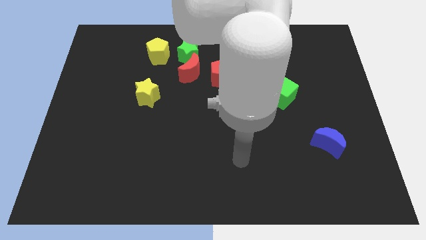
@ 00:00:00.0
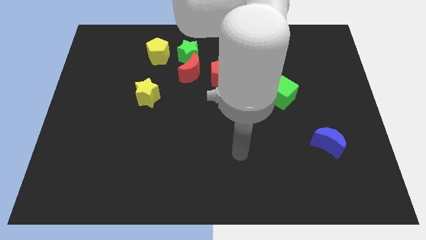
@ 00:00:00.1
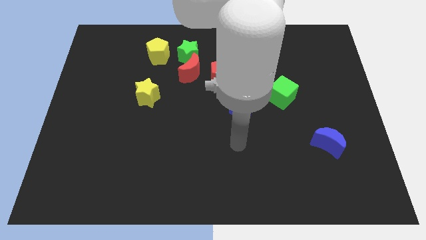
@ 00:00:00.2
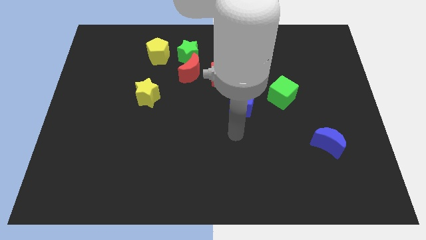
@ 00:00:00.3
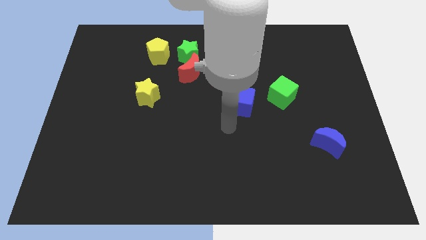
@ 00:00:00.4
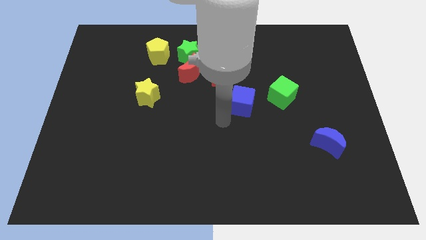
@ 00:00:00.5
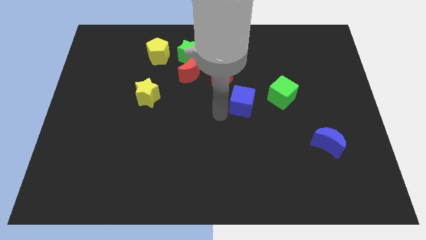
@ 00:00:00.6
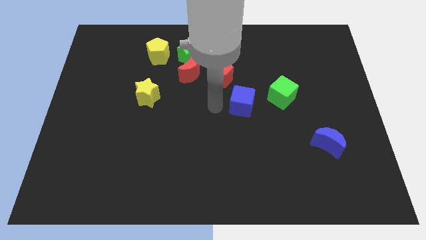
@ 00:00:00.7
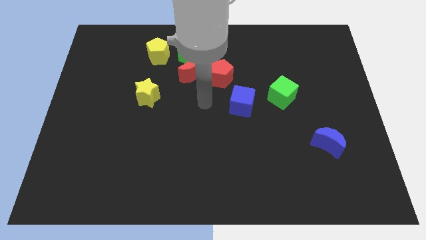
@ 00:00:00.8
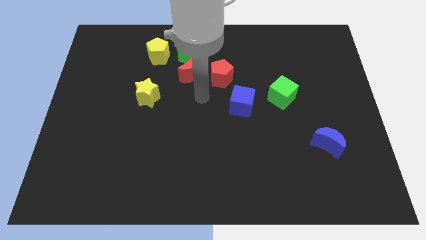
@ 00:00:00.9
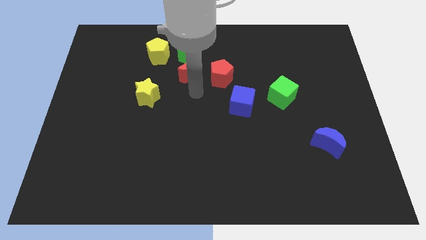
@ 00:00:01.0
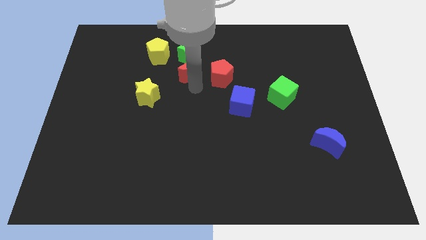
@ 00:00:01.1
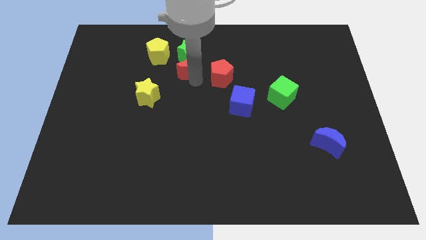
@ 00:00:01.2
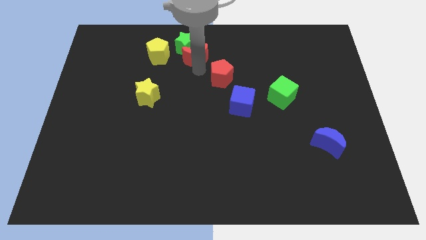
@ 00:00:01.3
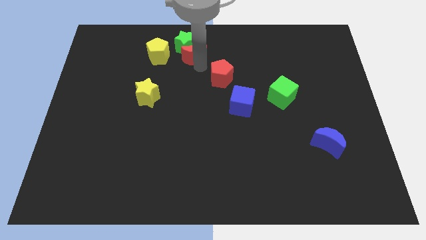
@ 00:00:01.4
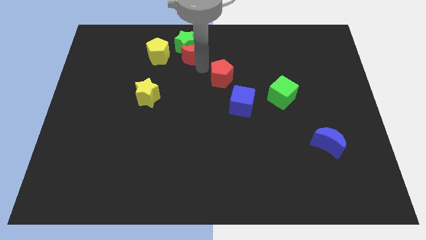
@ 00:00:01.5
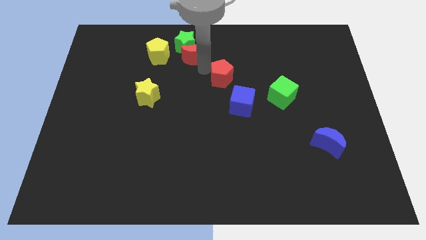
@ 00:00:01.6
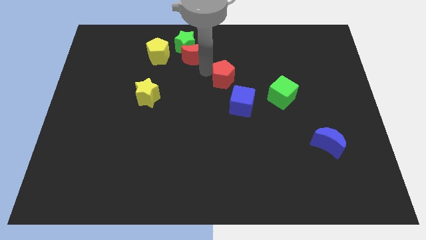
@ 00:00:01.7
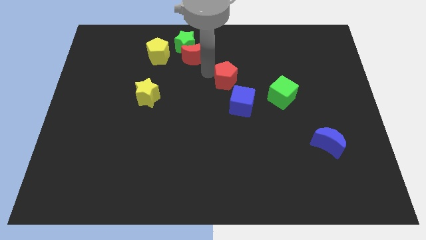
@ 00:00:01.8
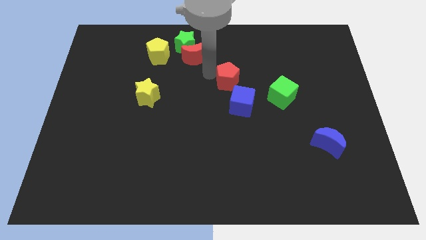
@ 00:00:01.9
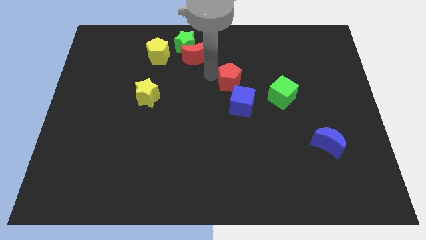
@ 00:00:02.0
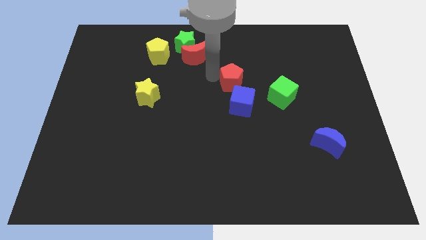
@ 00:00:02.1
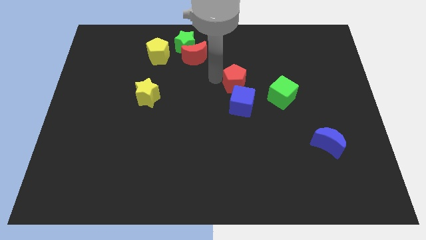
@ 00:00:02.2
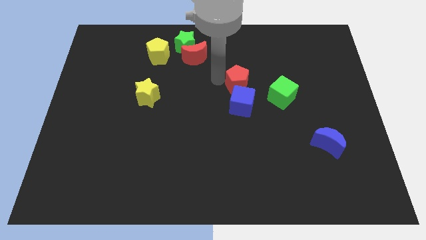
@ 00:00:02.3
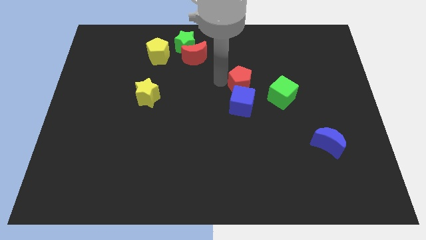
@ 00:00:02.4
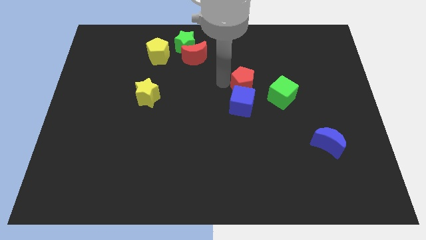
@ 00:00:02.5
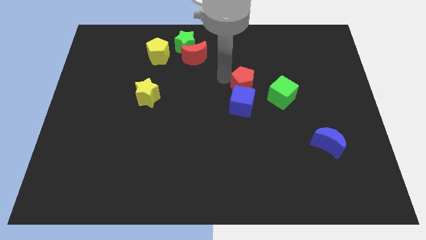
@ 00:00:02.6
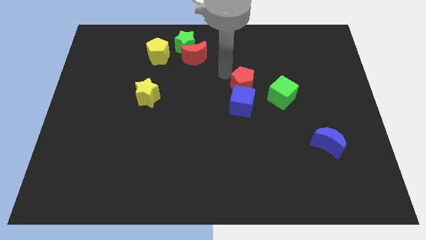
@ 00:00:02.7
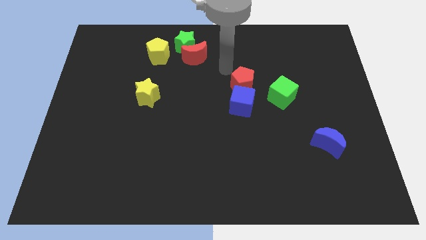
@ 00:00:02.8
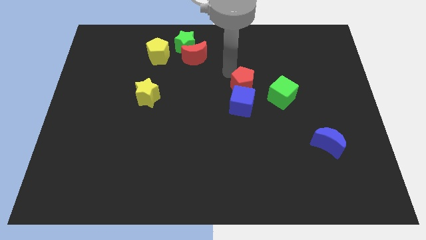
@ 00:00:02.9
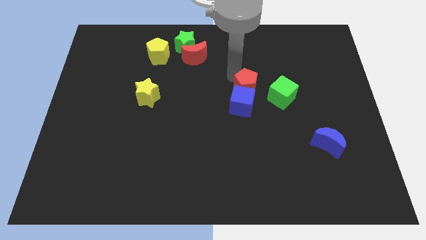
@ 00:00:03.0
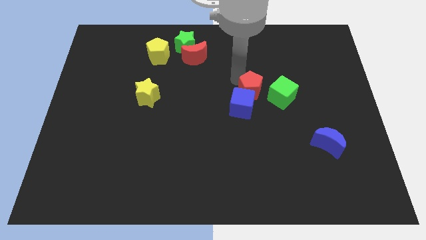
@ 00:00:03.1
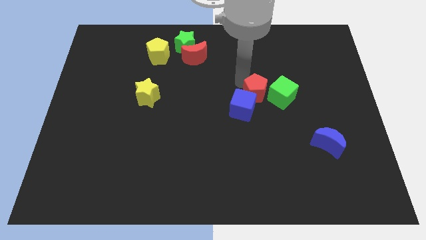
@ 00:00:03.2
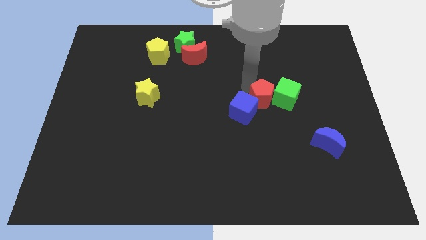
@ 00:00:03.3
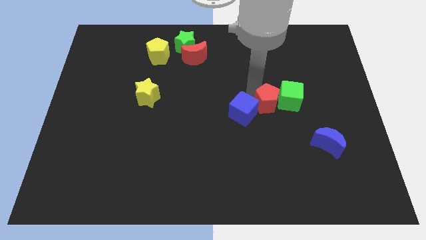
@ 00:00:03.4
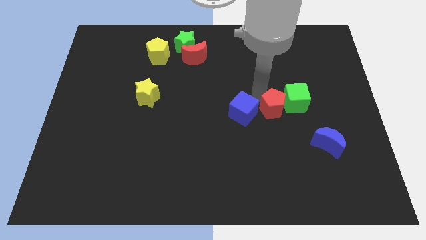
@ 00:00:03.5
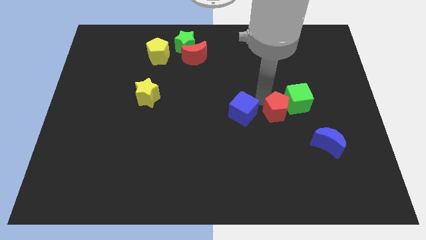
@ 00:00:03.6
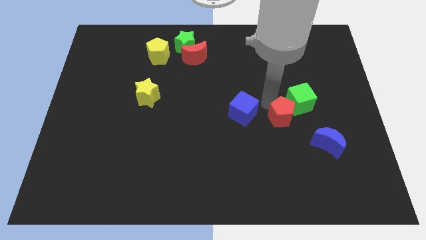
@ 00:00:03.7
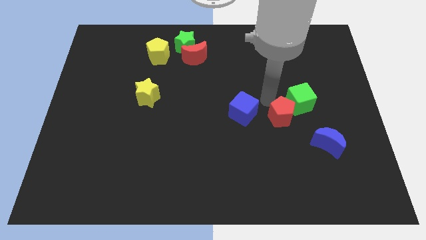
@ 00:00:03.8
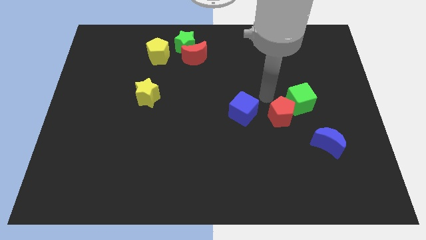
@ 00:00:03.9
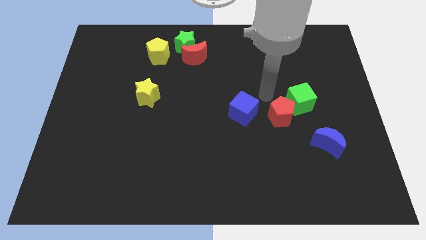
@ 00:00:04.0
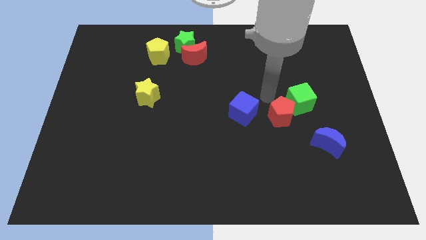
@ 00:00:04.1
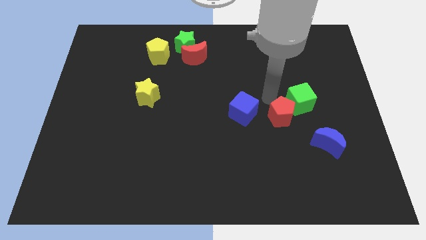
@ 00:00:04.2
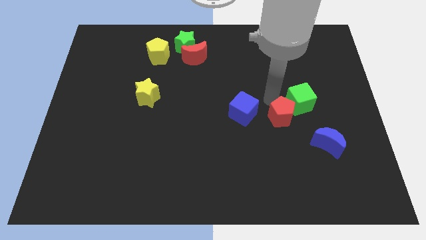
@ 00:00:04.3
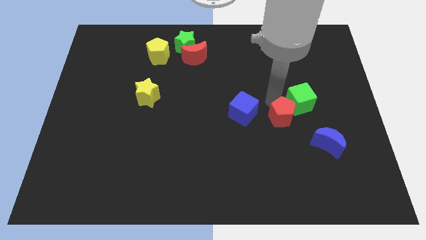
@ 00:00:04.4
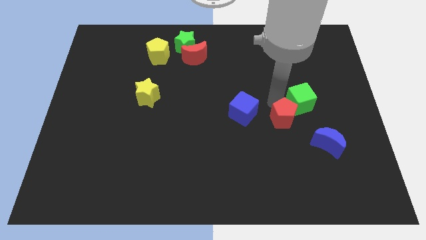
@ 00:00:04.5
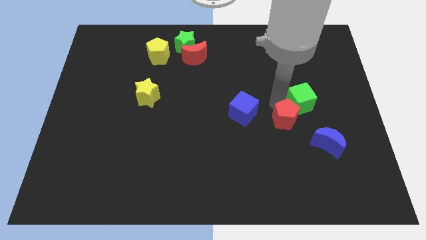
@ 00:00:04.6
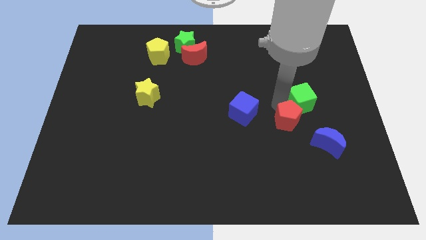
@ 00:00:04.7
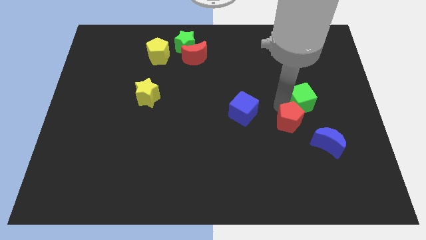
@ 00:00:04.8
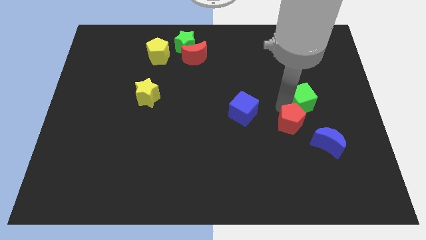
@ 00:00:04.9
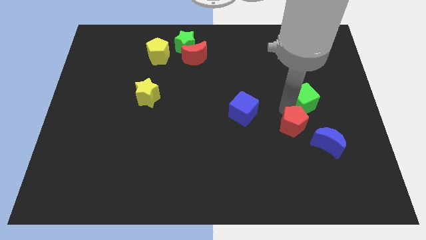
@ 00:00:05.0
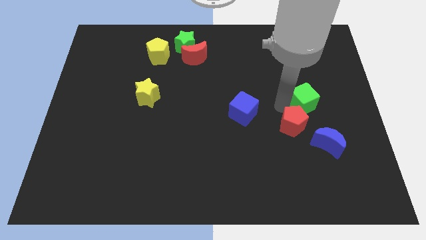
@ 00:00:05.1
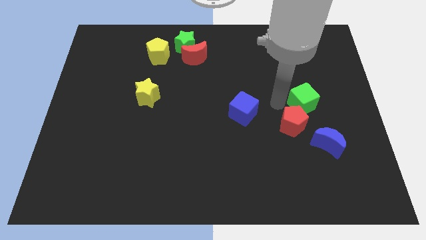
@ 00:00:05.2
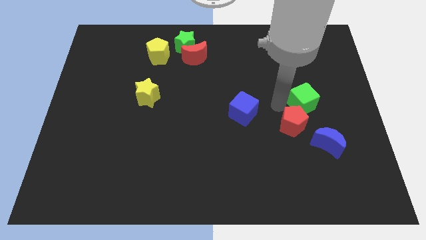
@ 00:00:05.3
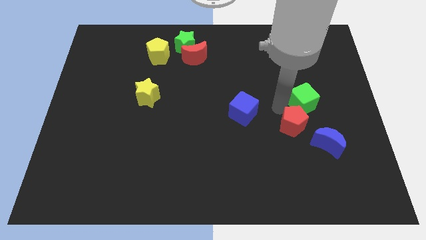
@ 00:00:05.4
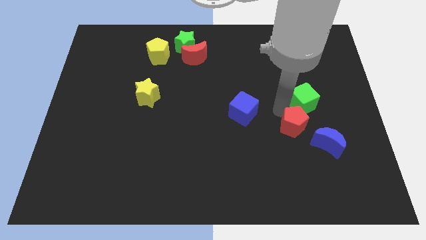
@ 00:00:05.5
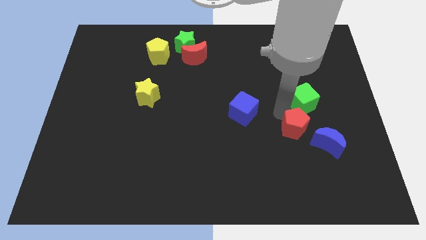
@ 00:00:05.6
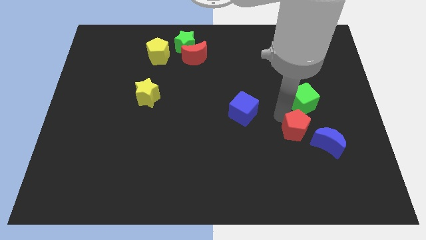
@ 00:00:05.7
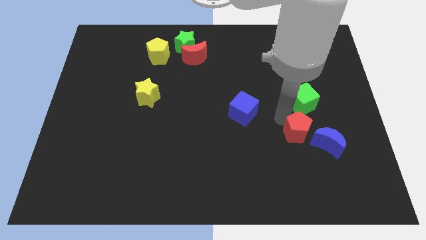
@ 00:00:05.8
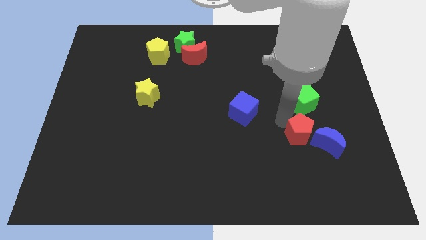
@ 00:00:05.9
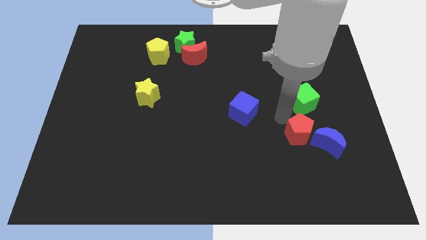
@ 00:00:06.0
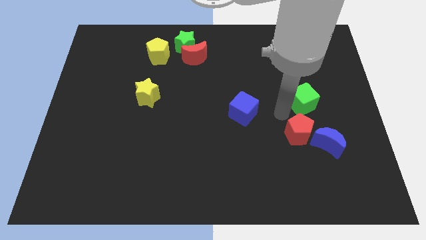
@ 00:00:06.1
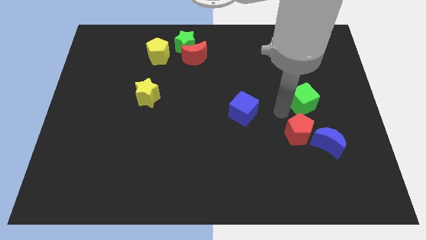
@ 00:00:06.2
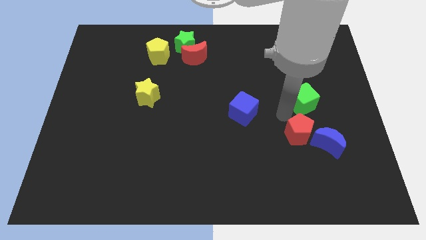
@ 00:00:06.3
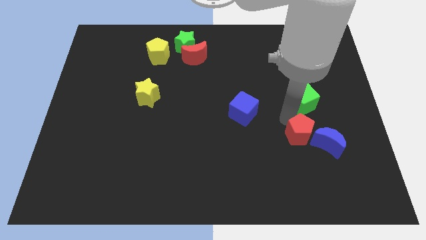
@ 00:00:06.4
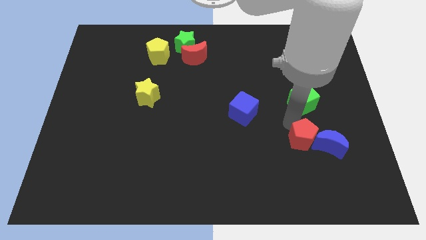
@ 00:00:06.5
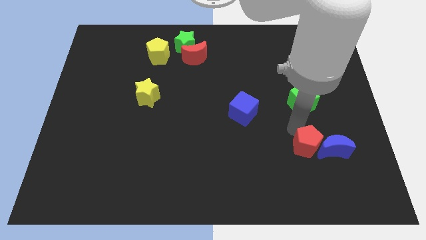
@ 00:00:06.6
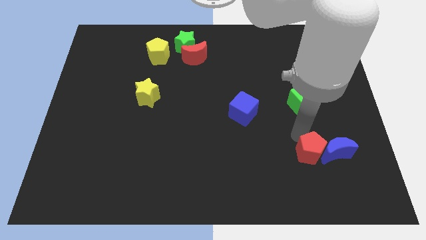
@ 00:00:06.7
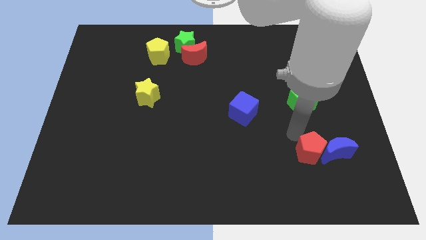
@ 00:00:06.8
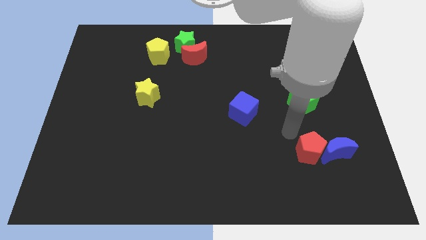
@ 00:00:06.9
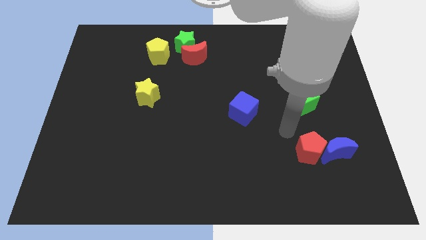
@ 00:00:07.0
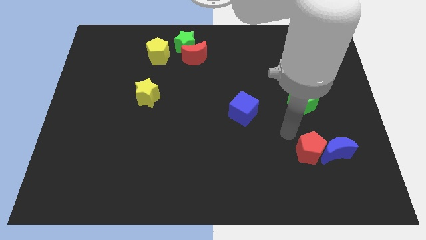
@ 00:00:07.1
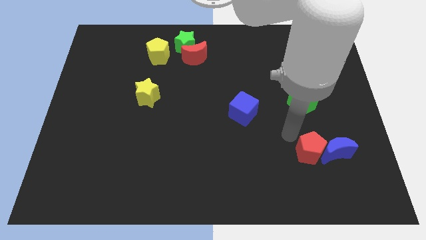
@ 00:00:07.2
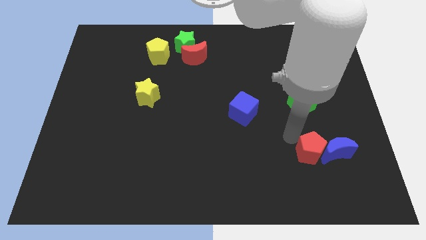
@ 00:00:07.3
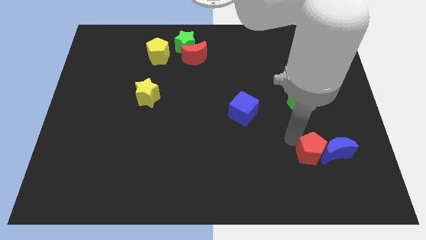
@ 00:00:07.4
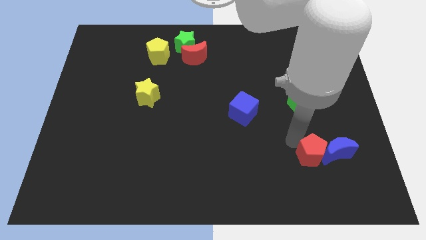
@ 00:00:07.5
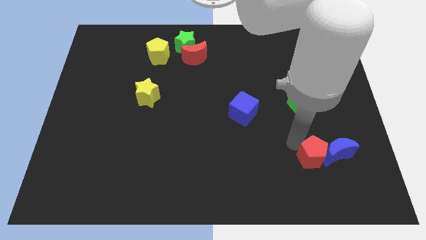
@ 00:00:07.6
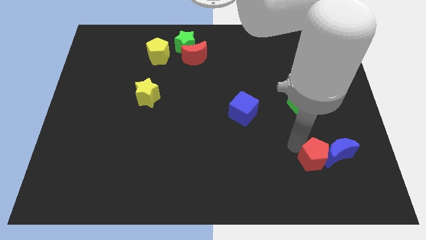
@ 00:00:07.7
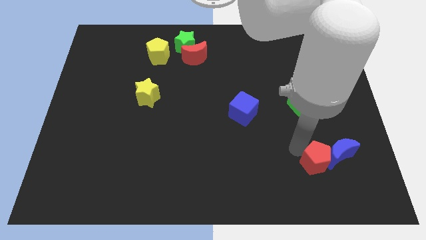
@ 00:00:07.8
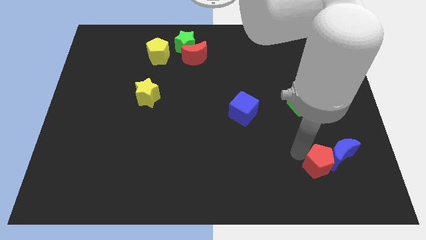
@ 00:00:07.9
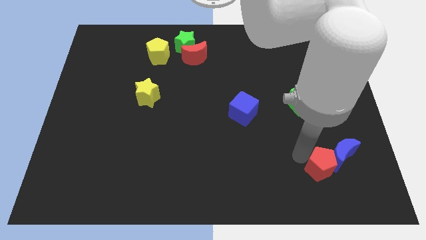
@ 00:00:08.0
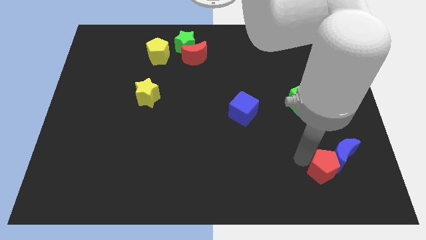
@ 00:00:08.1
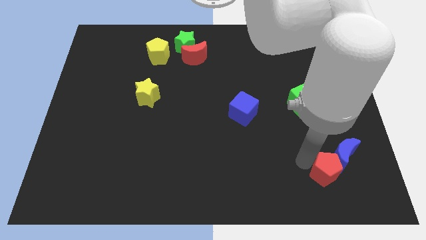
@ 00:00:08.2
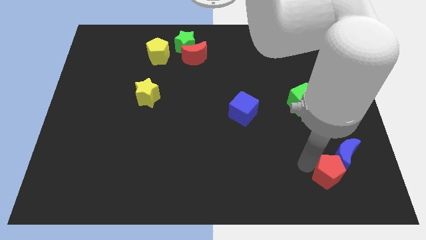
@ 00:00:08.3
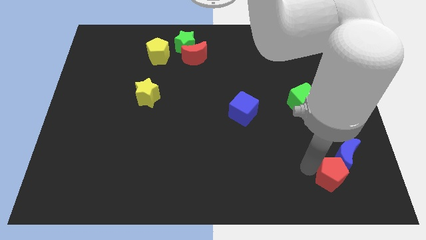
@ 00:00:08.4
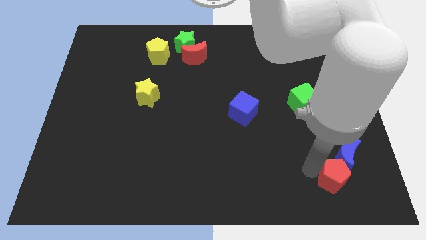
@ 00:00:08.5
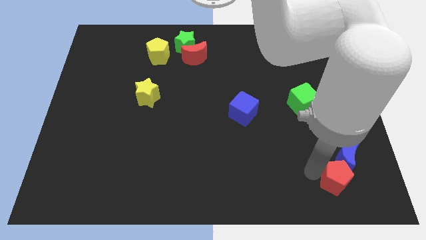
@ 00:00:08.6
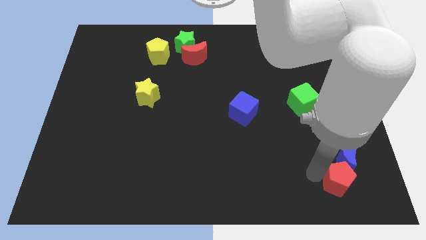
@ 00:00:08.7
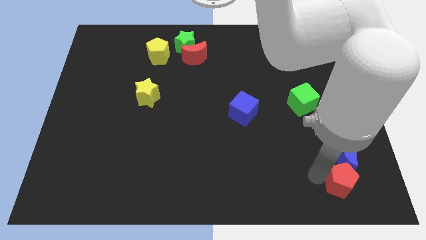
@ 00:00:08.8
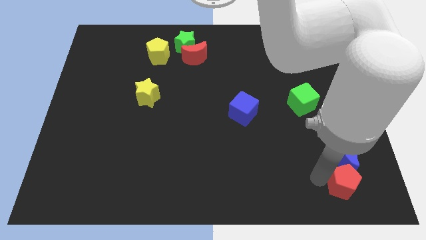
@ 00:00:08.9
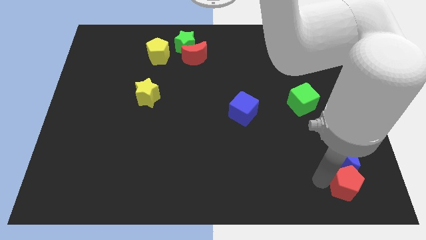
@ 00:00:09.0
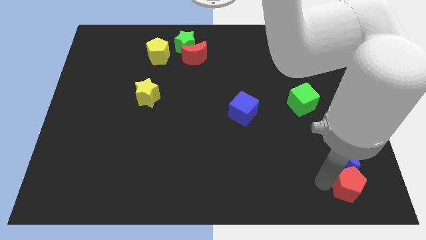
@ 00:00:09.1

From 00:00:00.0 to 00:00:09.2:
move the red pentagon to the bottom right
